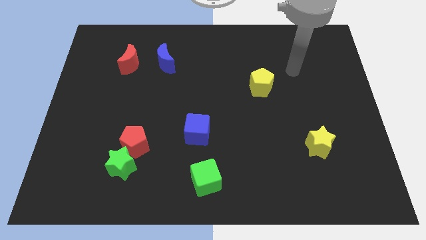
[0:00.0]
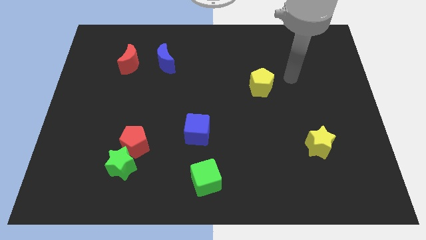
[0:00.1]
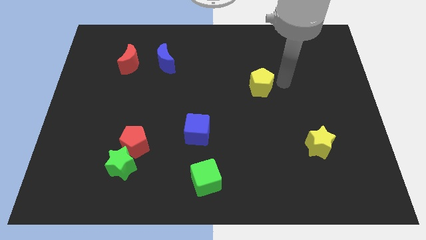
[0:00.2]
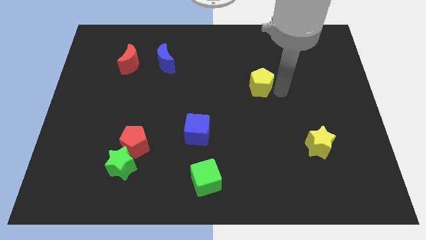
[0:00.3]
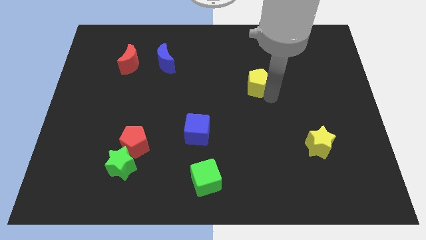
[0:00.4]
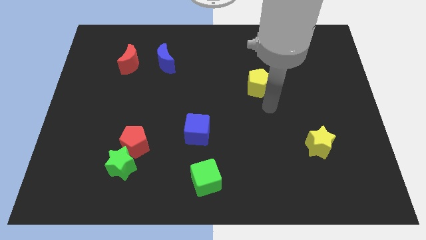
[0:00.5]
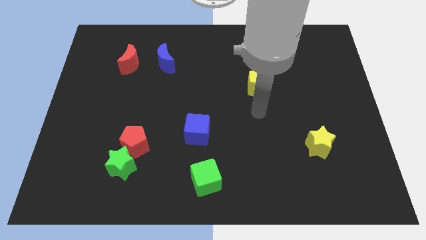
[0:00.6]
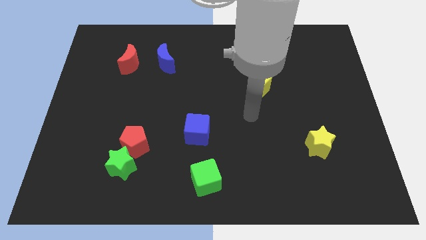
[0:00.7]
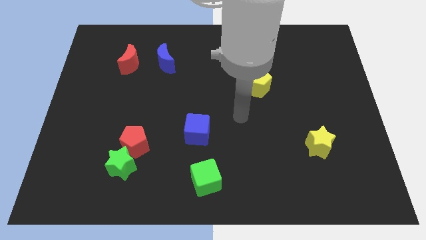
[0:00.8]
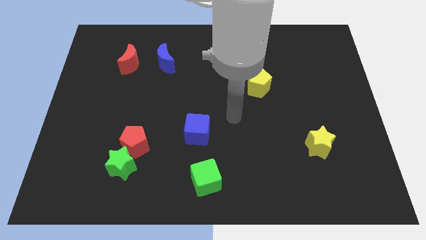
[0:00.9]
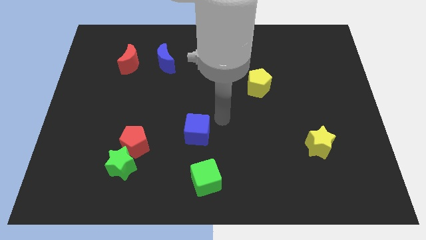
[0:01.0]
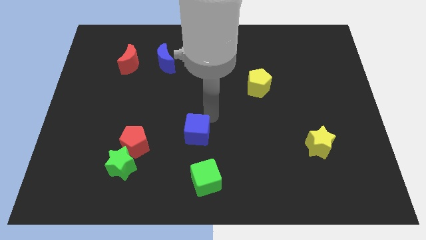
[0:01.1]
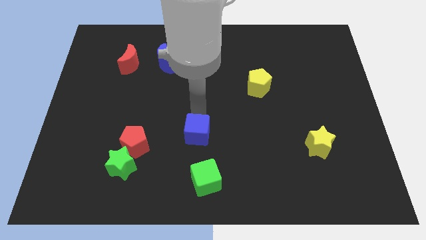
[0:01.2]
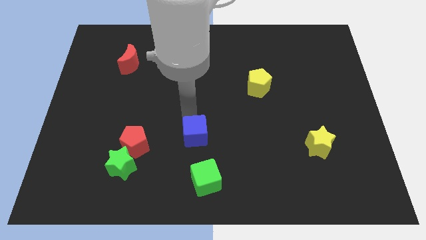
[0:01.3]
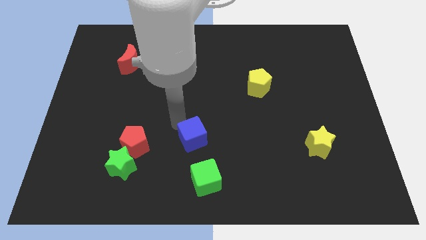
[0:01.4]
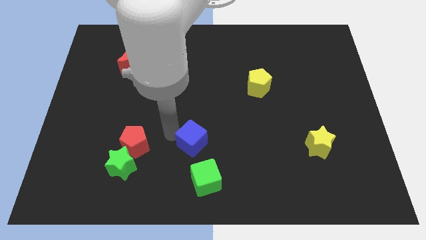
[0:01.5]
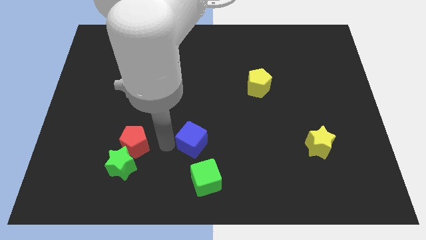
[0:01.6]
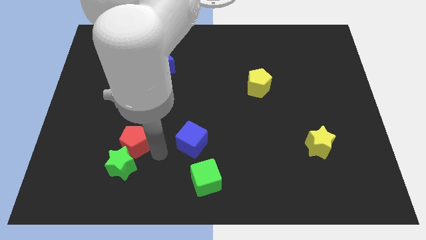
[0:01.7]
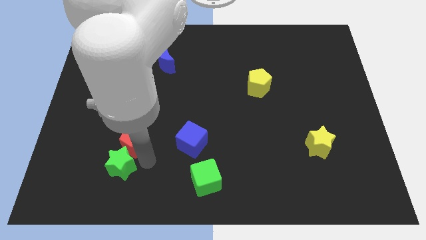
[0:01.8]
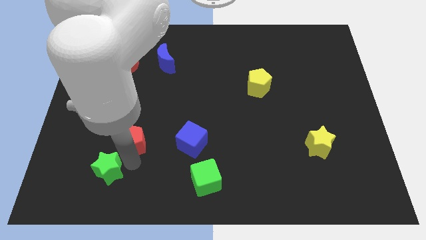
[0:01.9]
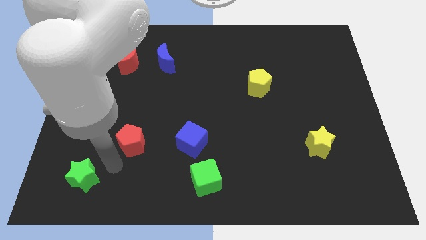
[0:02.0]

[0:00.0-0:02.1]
move the red pentagon away from the green star

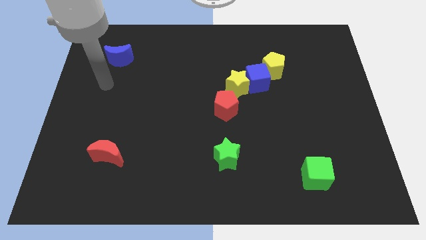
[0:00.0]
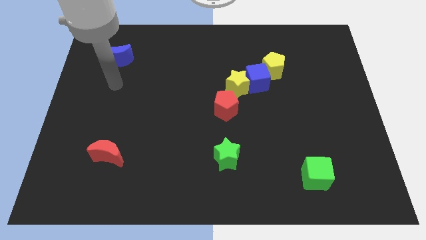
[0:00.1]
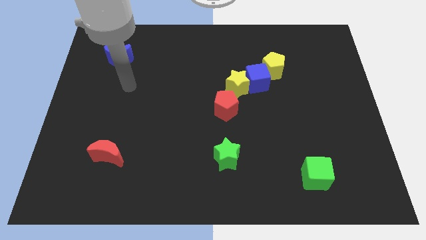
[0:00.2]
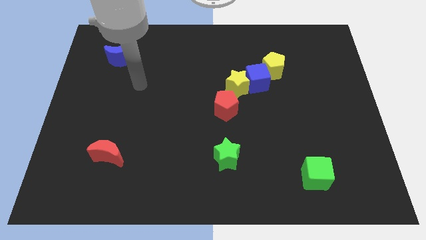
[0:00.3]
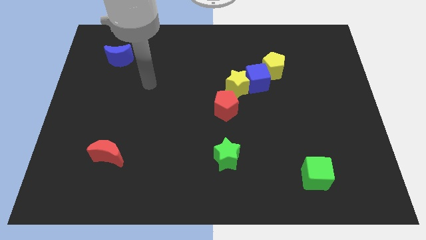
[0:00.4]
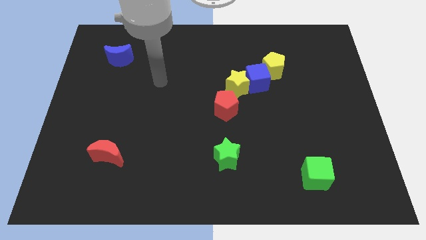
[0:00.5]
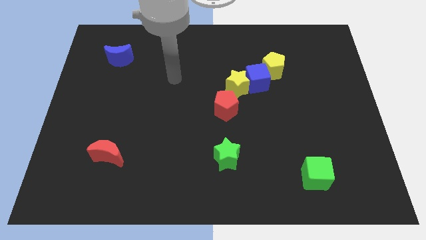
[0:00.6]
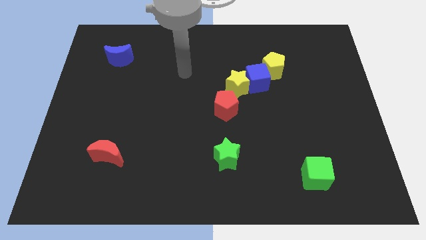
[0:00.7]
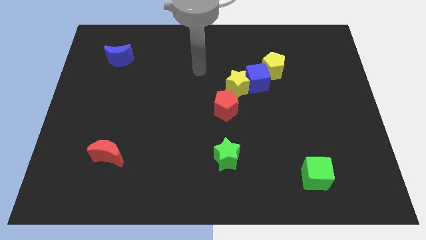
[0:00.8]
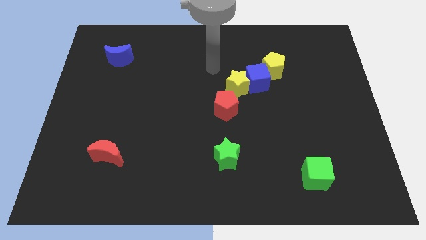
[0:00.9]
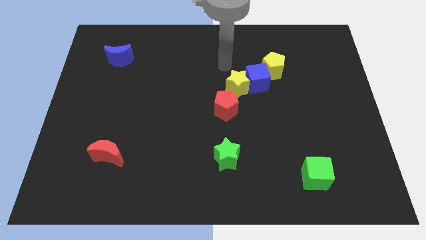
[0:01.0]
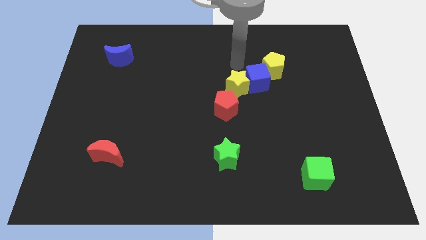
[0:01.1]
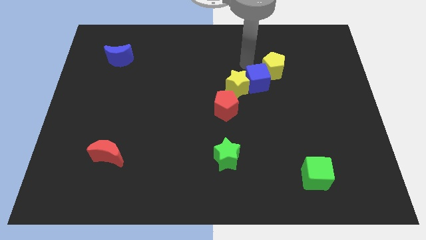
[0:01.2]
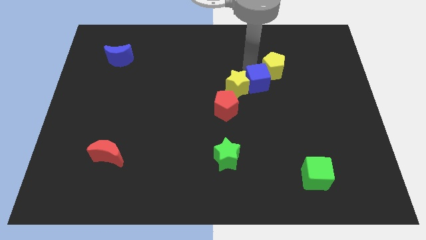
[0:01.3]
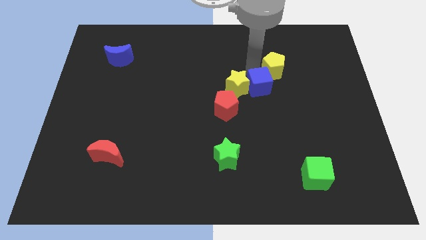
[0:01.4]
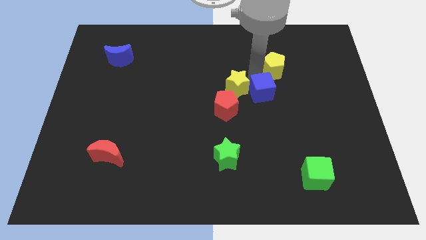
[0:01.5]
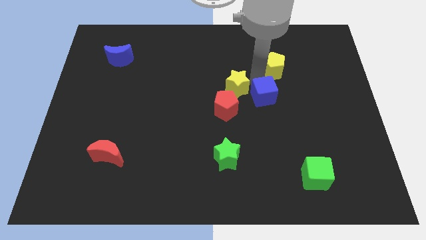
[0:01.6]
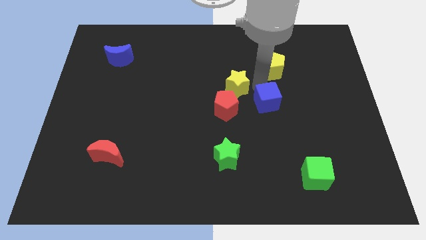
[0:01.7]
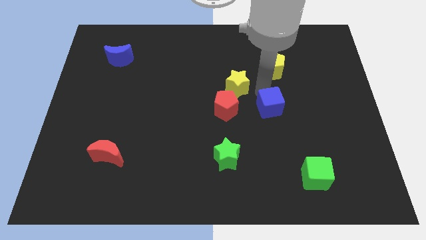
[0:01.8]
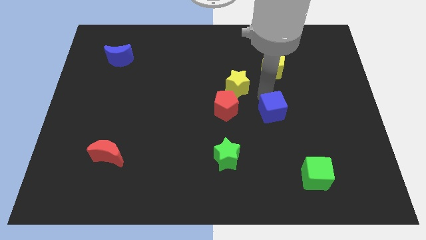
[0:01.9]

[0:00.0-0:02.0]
separate the blue cube from the yellow star and yellow pentagon

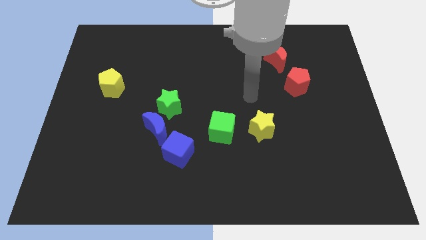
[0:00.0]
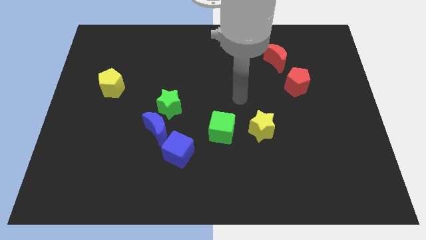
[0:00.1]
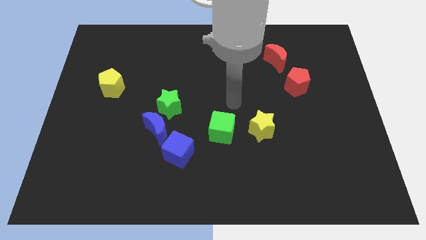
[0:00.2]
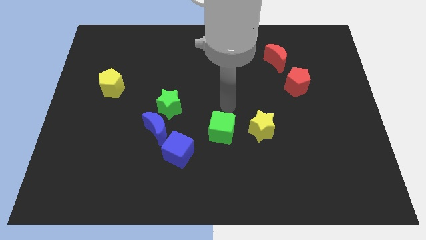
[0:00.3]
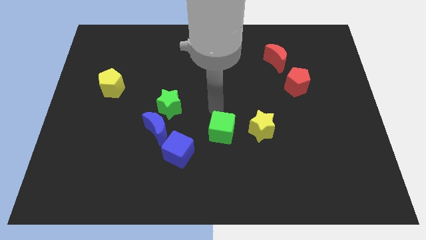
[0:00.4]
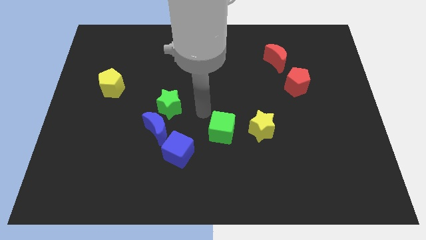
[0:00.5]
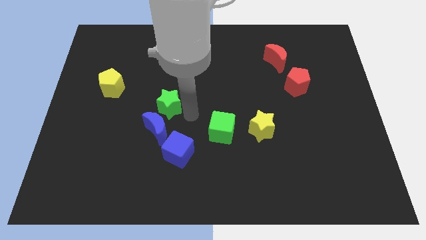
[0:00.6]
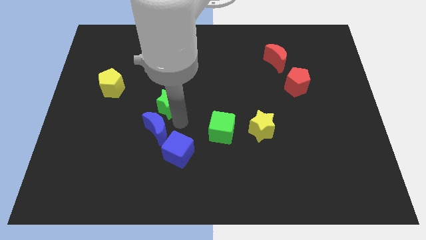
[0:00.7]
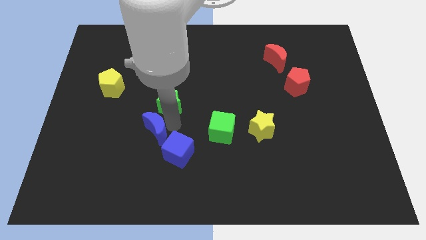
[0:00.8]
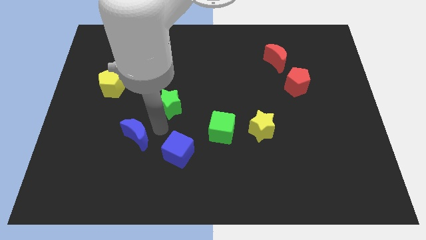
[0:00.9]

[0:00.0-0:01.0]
separate the green star from the blue moon

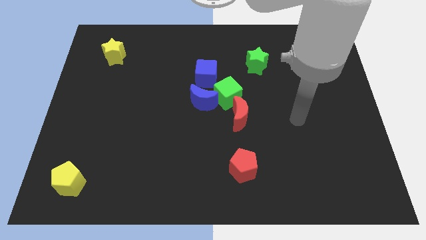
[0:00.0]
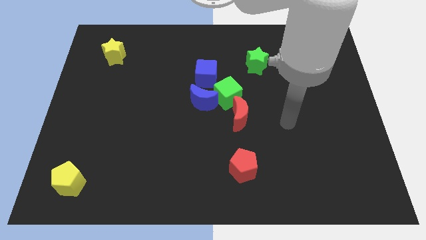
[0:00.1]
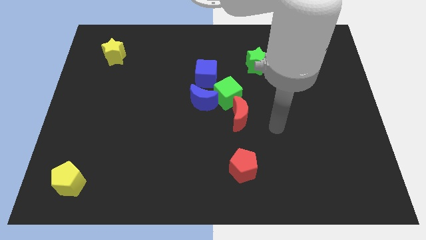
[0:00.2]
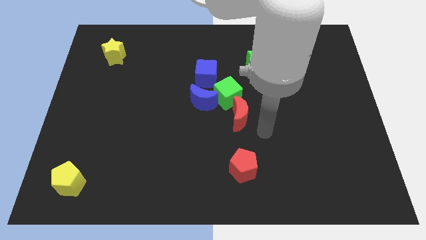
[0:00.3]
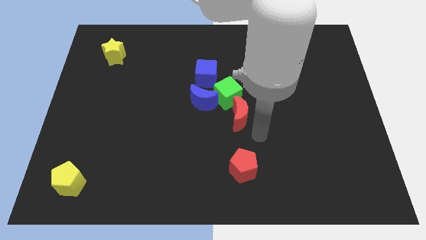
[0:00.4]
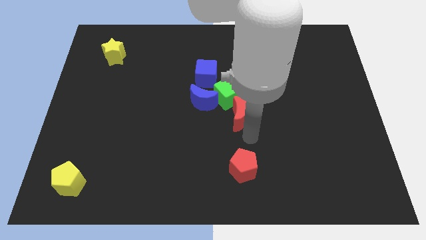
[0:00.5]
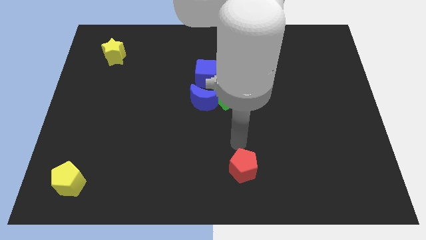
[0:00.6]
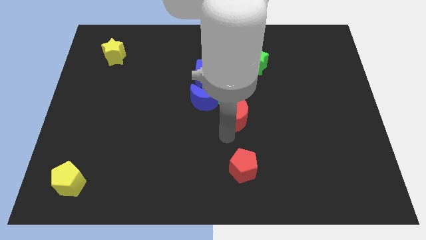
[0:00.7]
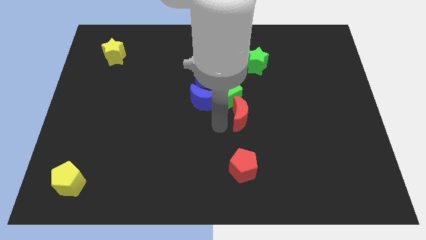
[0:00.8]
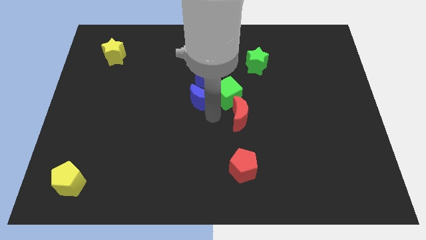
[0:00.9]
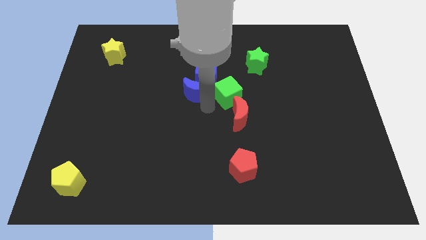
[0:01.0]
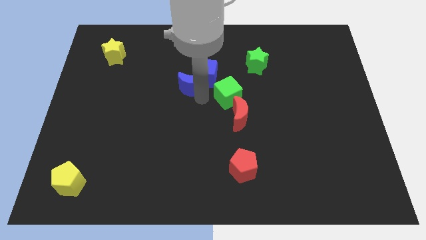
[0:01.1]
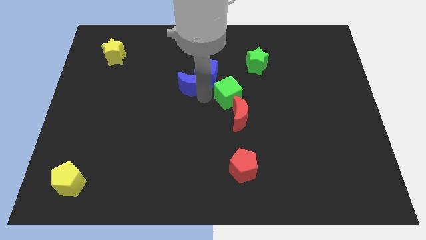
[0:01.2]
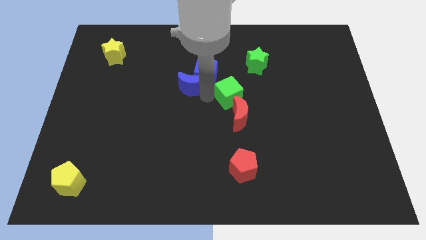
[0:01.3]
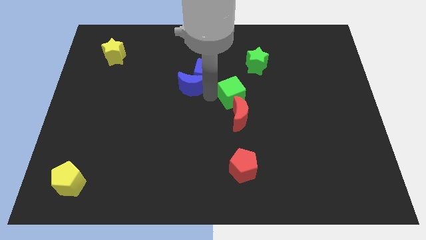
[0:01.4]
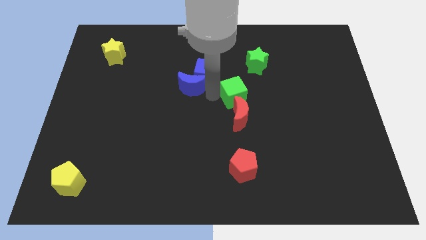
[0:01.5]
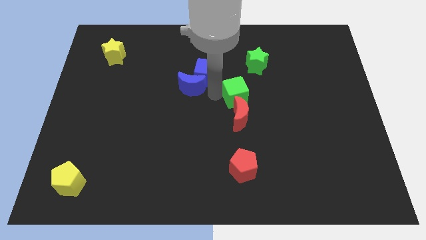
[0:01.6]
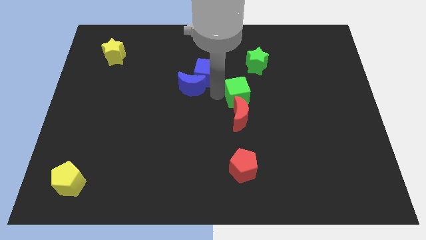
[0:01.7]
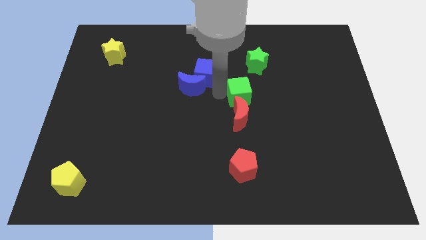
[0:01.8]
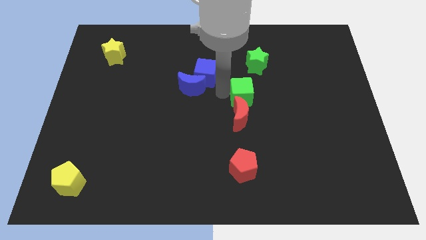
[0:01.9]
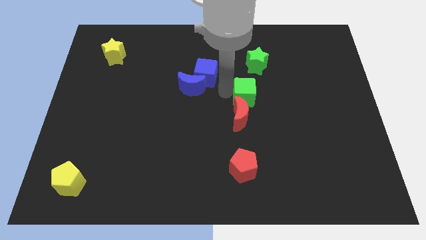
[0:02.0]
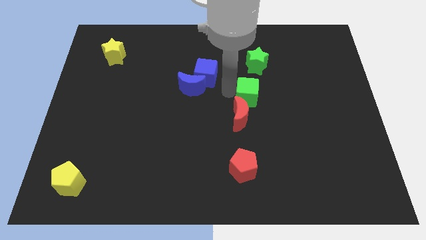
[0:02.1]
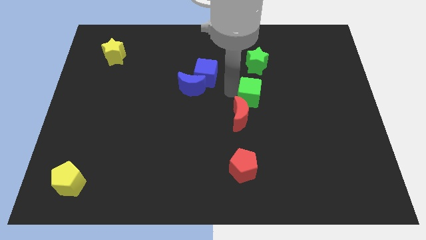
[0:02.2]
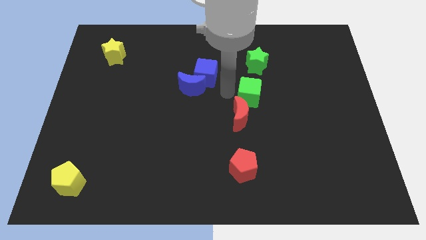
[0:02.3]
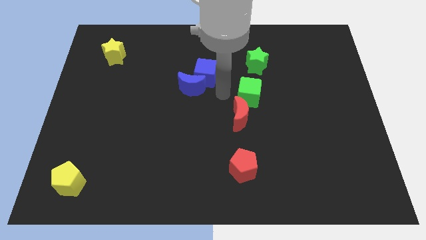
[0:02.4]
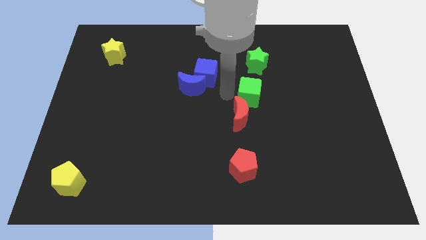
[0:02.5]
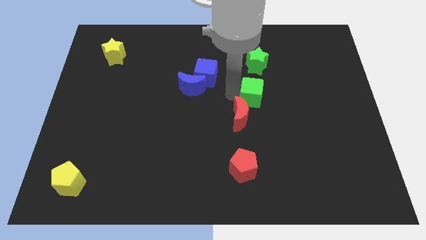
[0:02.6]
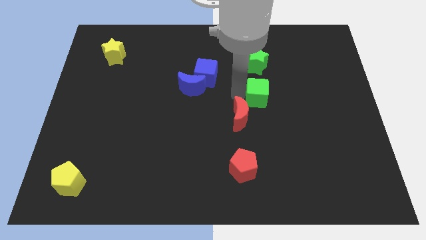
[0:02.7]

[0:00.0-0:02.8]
separate the green cube from the group of blocks

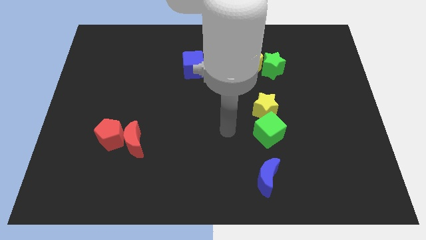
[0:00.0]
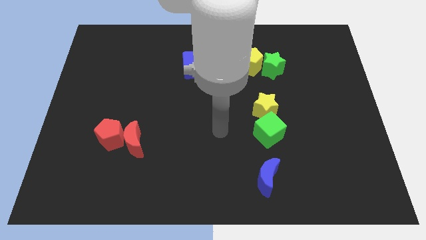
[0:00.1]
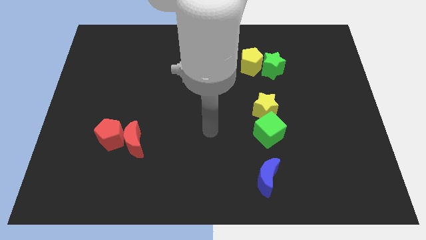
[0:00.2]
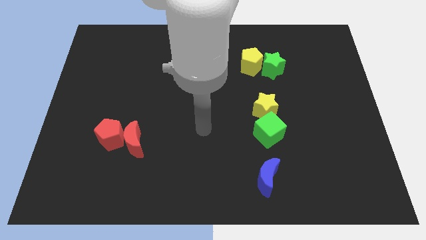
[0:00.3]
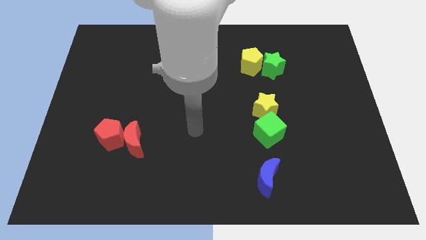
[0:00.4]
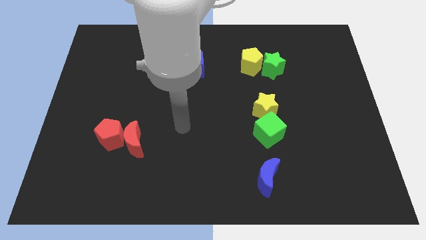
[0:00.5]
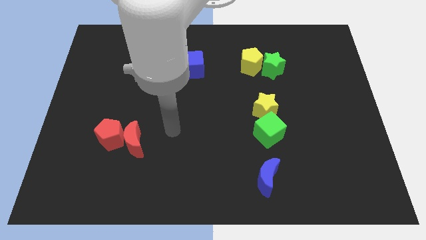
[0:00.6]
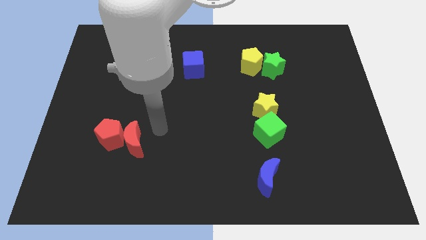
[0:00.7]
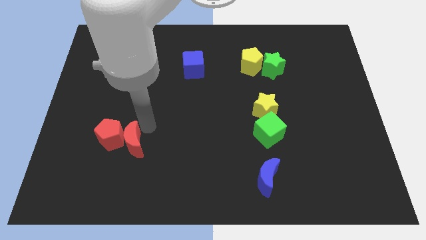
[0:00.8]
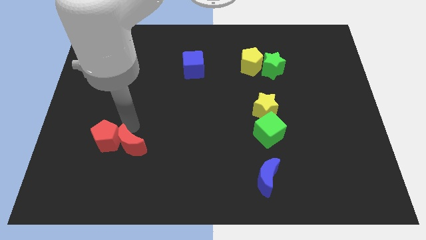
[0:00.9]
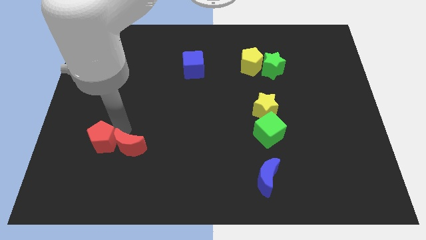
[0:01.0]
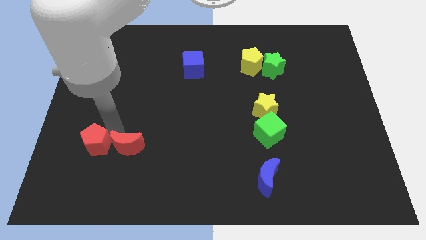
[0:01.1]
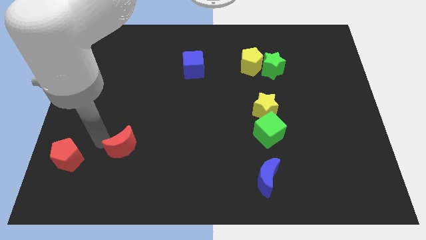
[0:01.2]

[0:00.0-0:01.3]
separate the red moon from the red pentagon

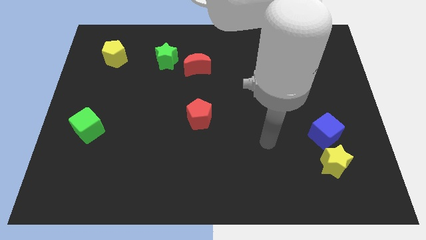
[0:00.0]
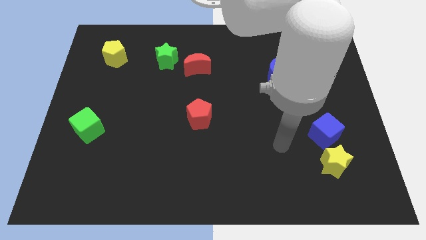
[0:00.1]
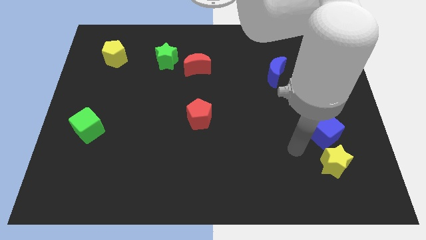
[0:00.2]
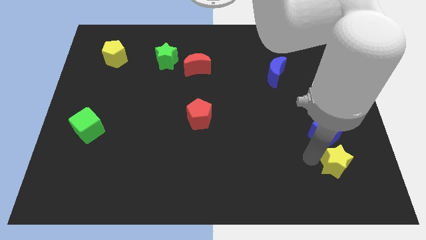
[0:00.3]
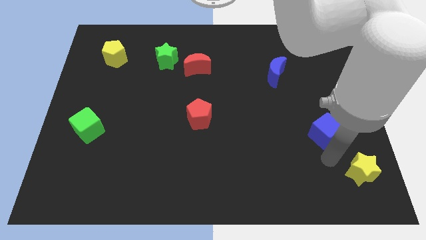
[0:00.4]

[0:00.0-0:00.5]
move the blue cube away from the yellow star
